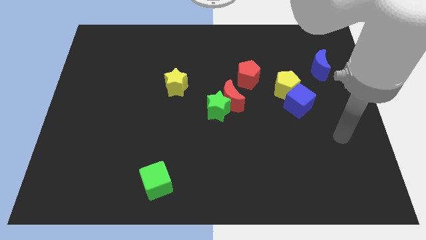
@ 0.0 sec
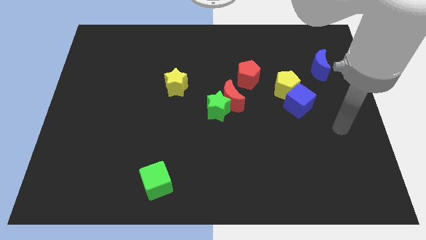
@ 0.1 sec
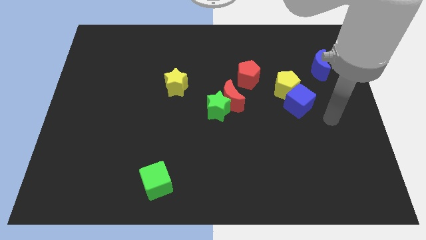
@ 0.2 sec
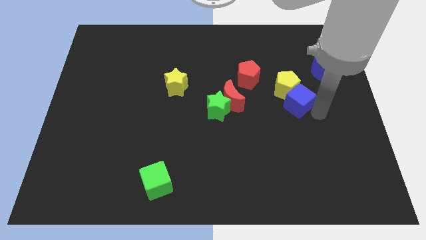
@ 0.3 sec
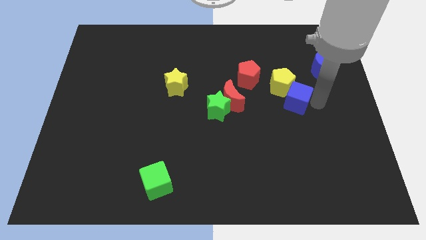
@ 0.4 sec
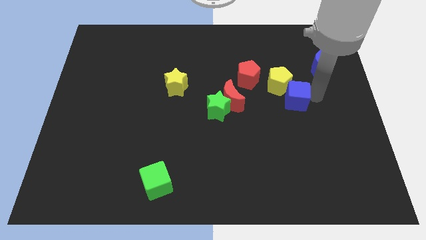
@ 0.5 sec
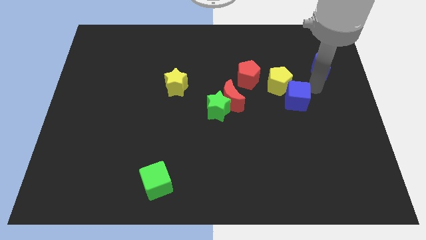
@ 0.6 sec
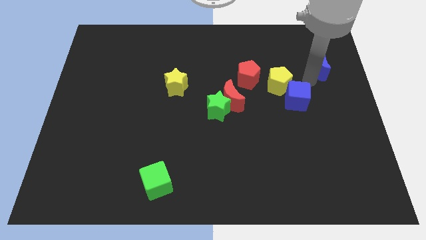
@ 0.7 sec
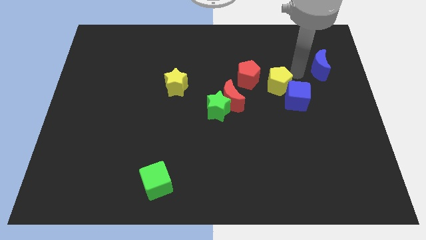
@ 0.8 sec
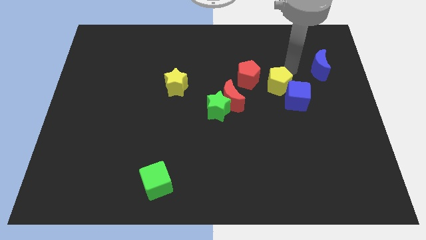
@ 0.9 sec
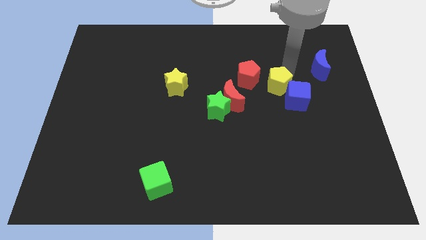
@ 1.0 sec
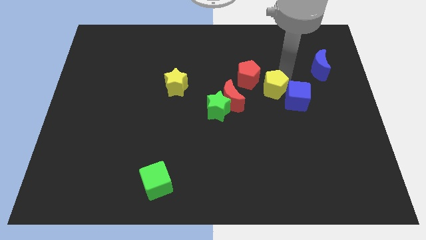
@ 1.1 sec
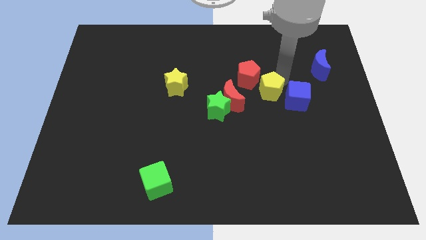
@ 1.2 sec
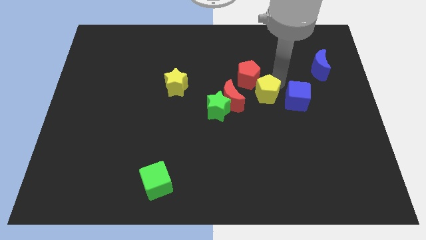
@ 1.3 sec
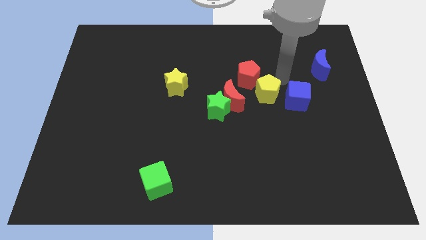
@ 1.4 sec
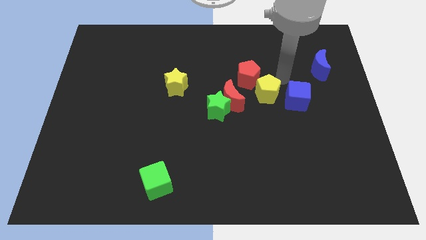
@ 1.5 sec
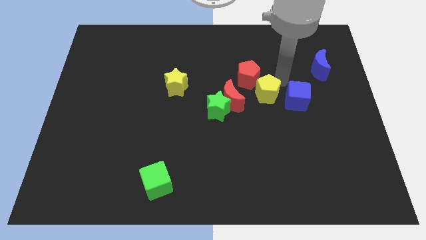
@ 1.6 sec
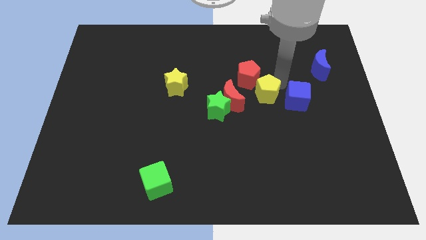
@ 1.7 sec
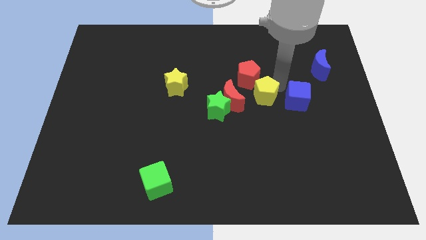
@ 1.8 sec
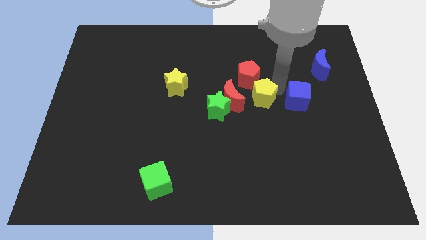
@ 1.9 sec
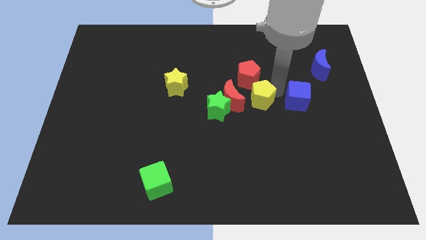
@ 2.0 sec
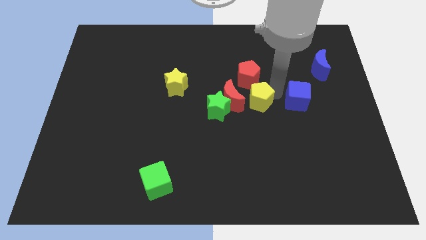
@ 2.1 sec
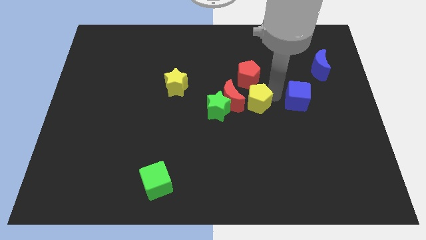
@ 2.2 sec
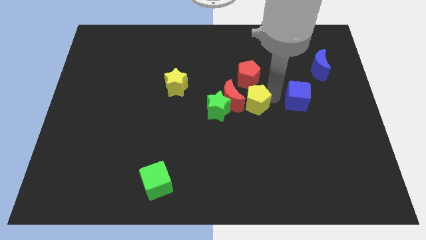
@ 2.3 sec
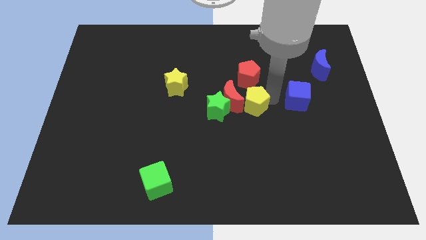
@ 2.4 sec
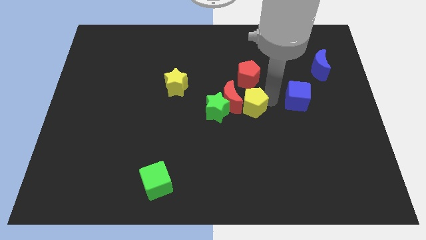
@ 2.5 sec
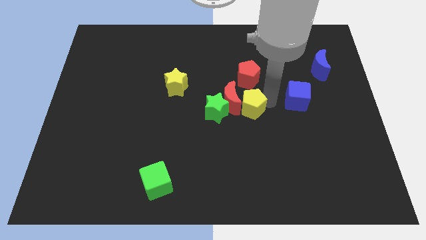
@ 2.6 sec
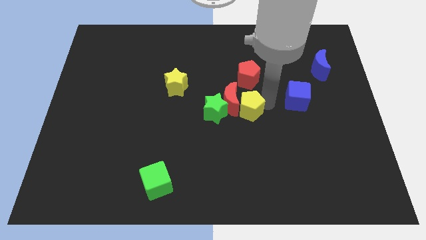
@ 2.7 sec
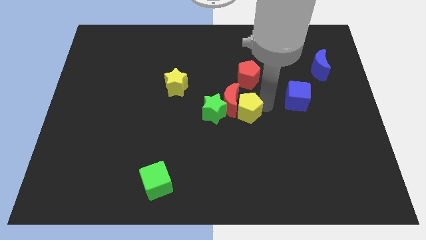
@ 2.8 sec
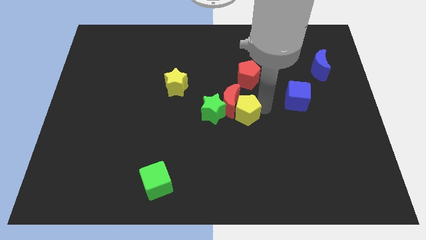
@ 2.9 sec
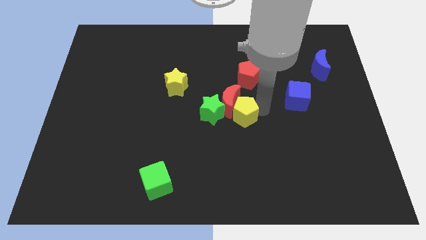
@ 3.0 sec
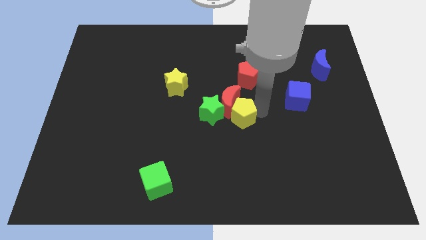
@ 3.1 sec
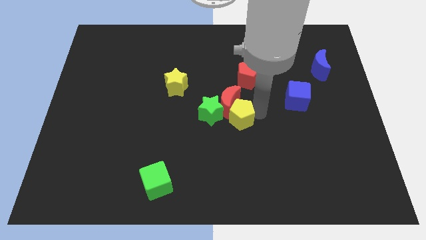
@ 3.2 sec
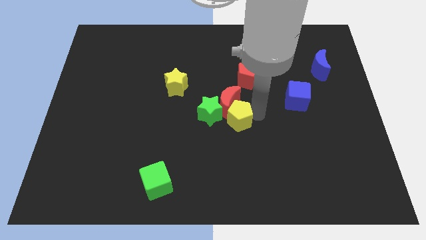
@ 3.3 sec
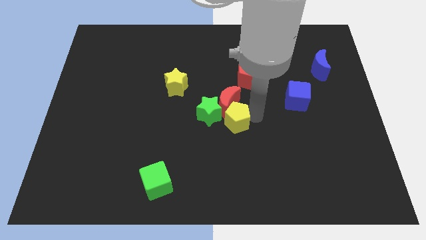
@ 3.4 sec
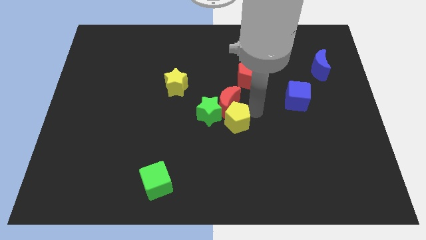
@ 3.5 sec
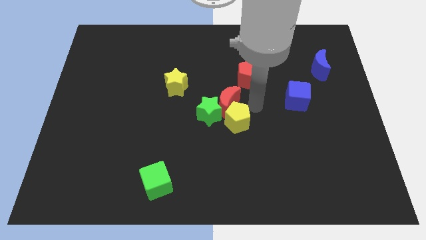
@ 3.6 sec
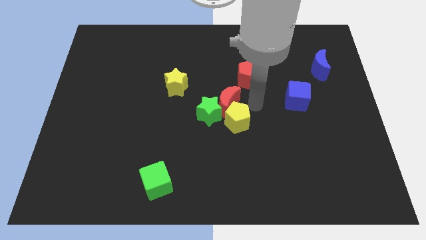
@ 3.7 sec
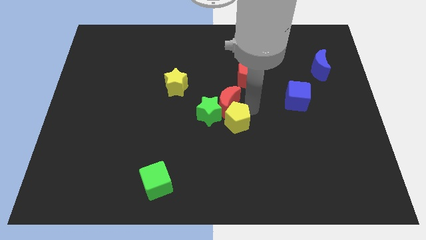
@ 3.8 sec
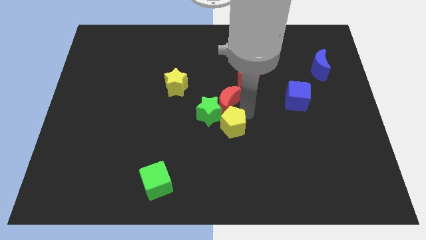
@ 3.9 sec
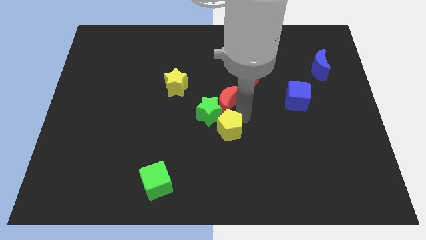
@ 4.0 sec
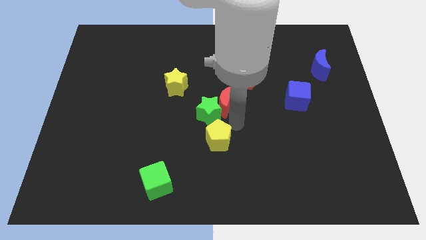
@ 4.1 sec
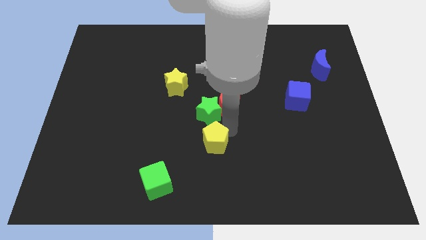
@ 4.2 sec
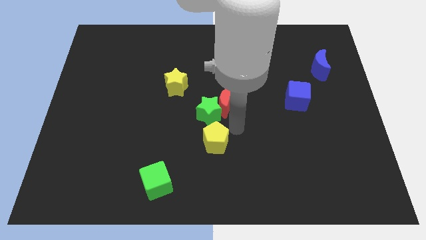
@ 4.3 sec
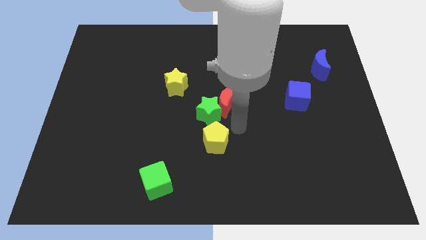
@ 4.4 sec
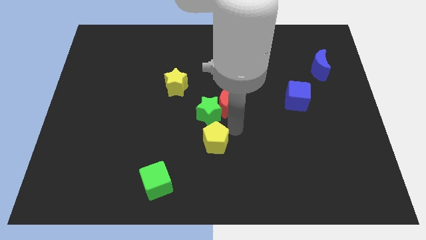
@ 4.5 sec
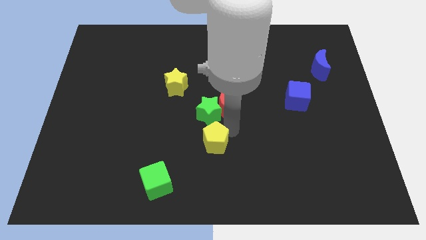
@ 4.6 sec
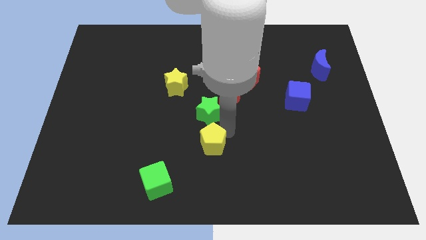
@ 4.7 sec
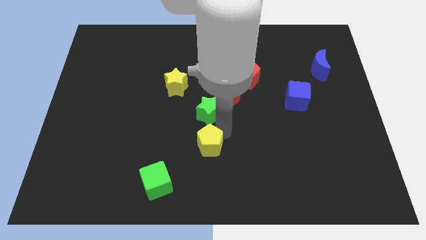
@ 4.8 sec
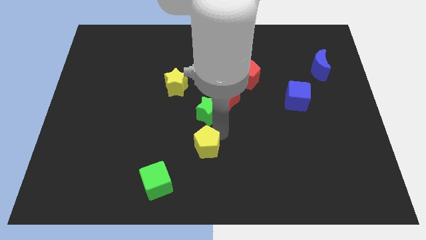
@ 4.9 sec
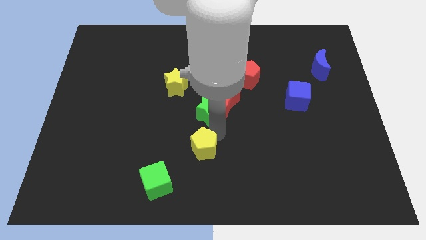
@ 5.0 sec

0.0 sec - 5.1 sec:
push the yellow pentagon diagonally up and to the right of the green cube

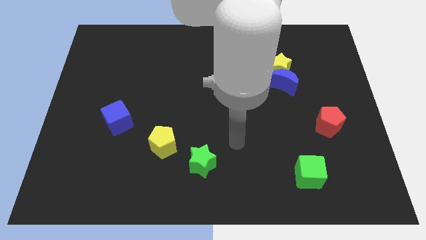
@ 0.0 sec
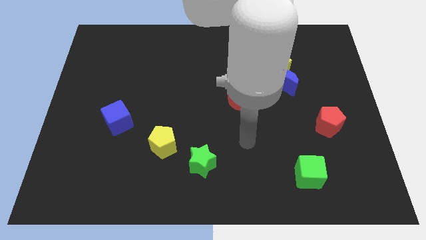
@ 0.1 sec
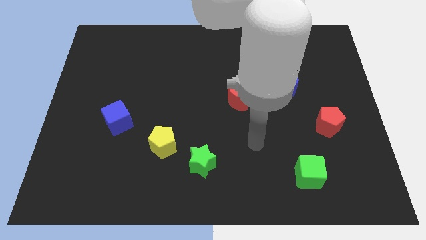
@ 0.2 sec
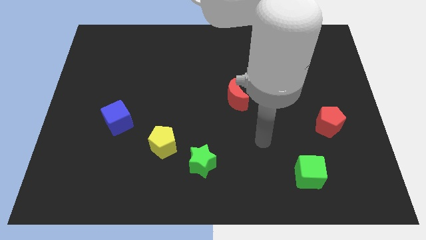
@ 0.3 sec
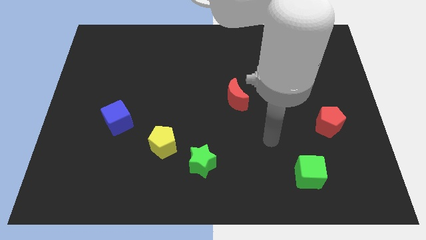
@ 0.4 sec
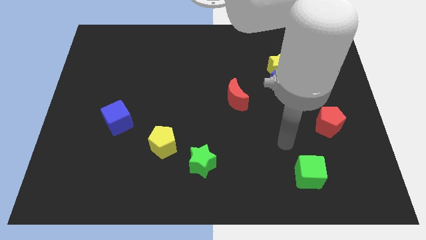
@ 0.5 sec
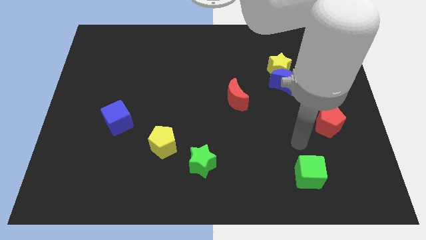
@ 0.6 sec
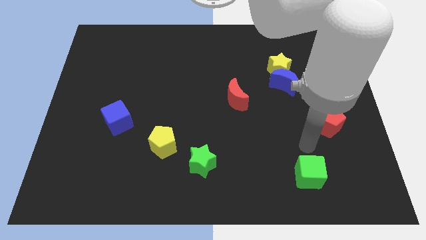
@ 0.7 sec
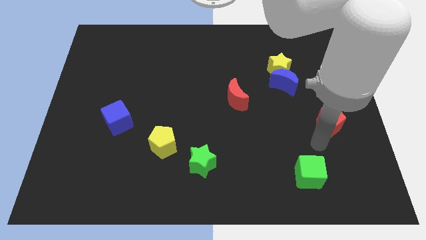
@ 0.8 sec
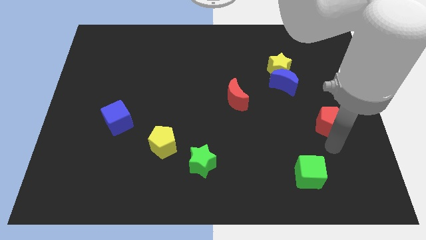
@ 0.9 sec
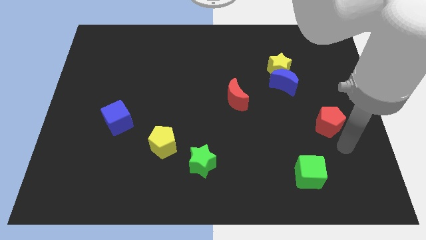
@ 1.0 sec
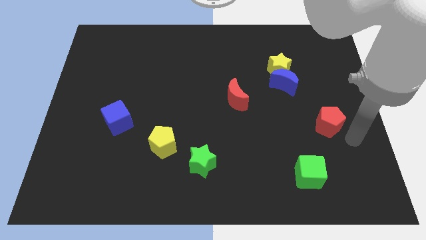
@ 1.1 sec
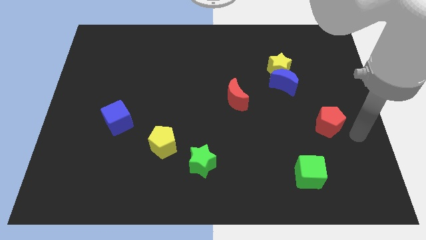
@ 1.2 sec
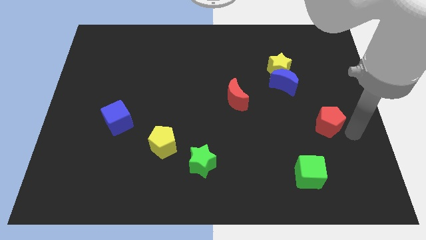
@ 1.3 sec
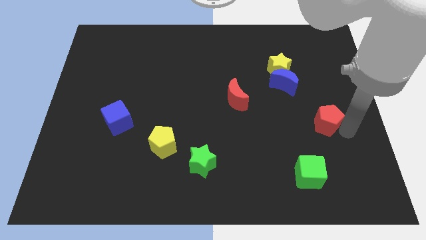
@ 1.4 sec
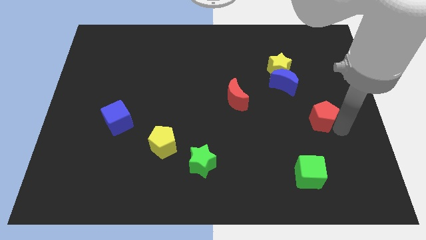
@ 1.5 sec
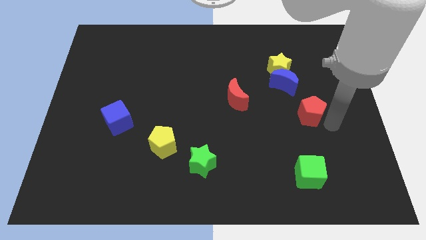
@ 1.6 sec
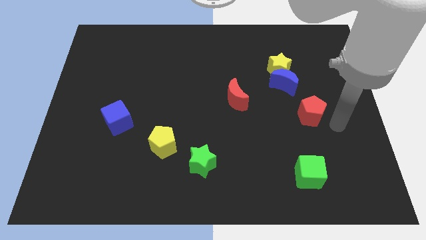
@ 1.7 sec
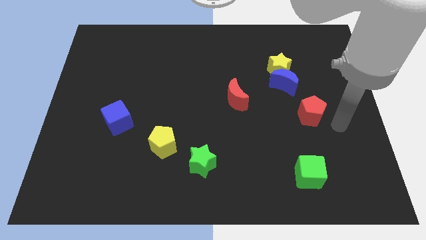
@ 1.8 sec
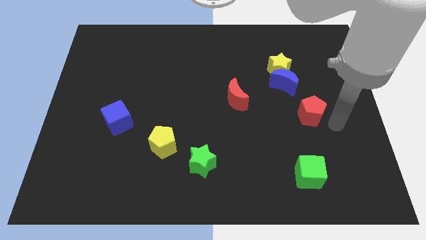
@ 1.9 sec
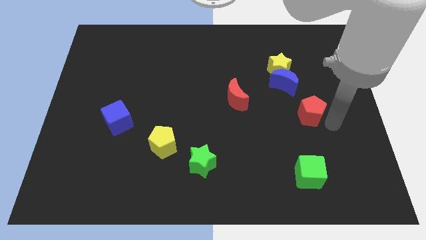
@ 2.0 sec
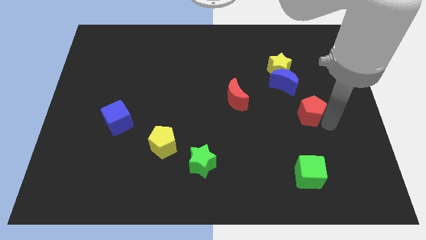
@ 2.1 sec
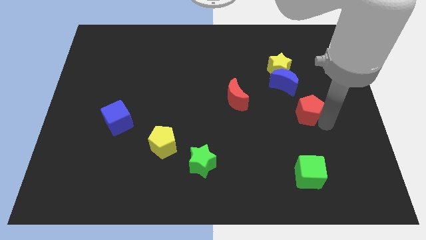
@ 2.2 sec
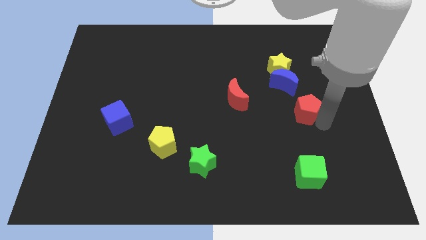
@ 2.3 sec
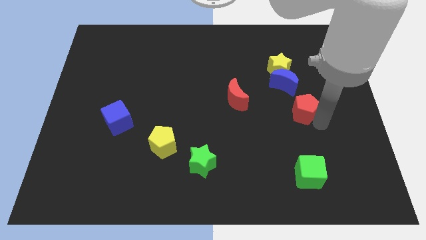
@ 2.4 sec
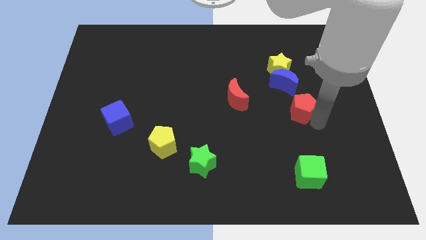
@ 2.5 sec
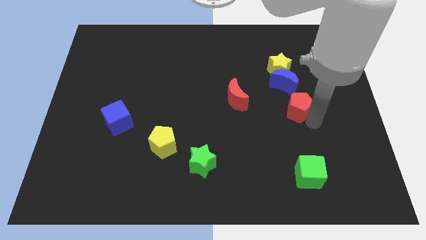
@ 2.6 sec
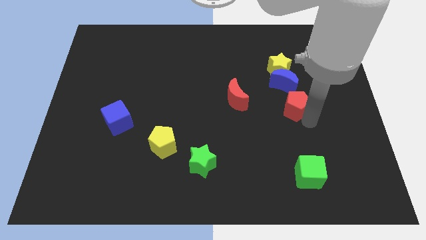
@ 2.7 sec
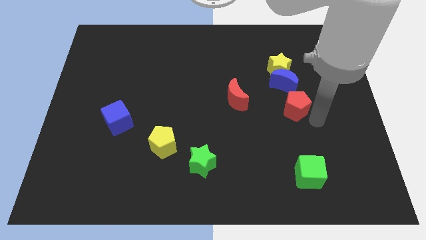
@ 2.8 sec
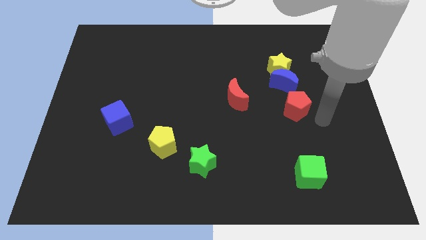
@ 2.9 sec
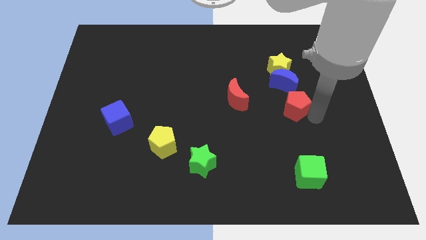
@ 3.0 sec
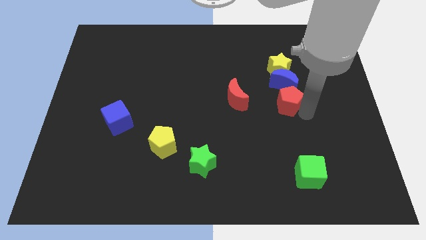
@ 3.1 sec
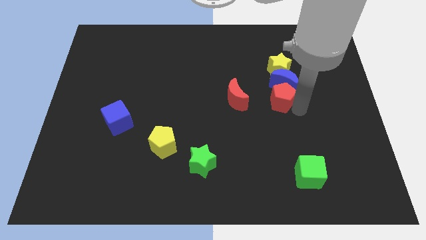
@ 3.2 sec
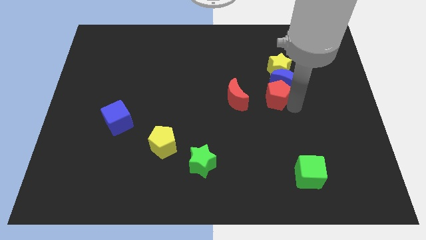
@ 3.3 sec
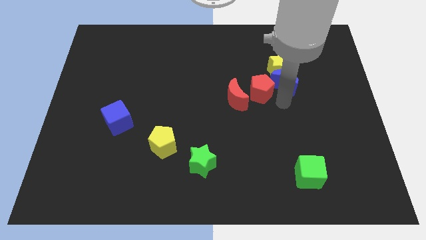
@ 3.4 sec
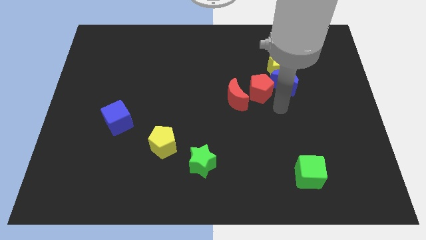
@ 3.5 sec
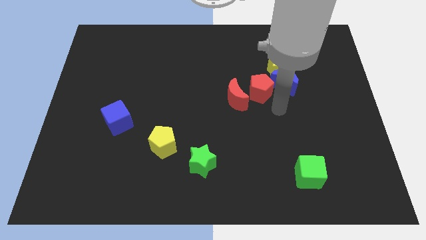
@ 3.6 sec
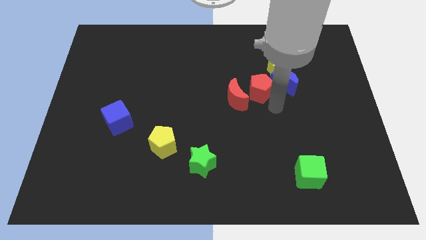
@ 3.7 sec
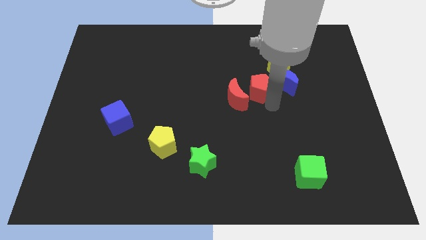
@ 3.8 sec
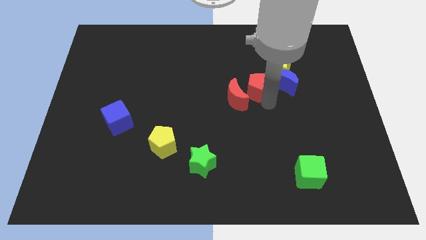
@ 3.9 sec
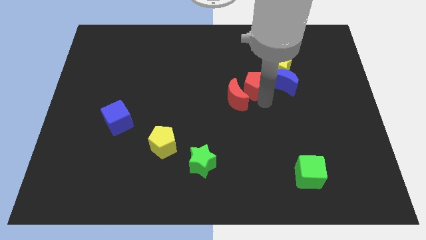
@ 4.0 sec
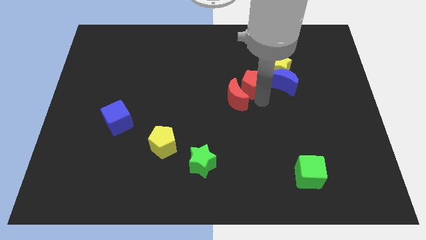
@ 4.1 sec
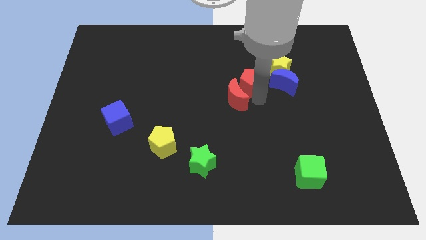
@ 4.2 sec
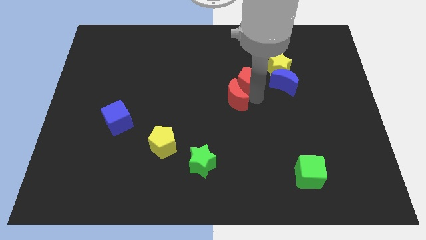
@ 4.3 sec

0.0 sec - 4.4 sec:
put the red pentagon to the left of the yellow star
